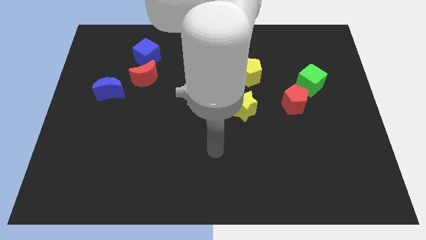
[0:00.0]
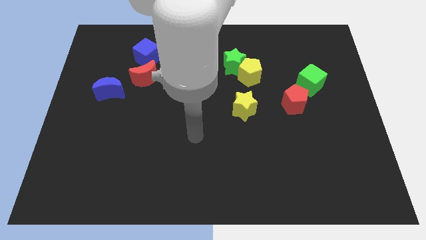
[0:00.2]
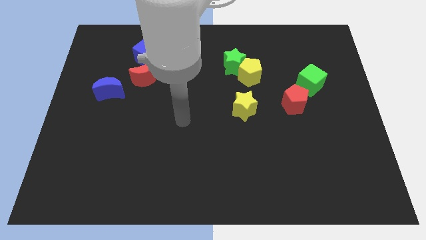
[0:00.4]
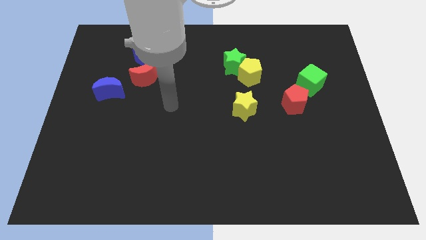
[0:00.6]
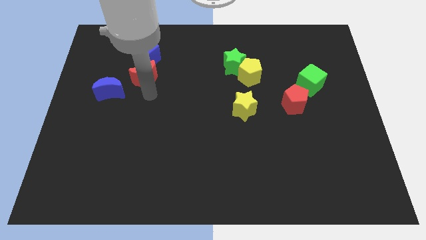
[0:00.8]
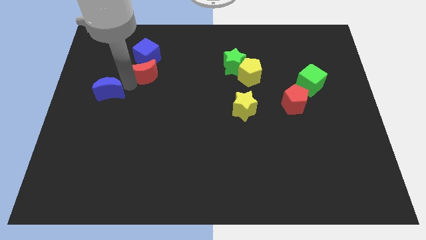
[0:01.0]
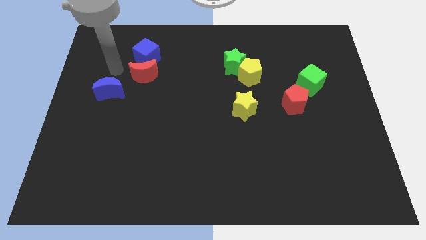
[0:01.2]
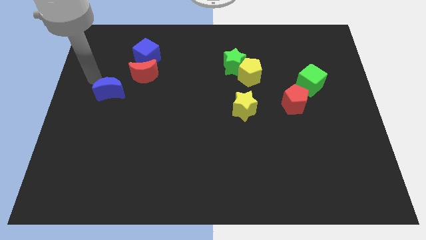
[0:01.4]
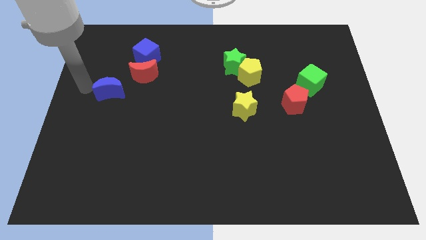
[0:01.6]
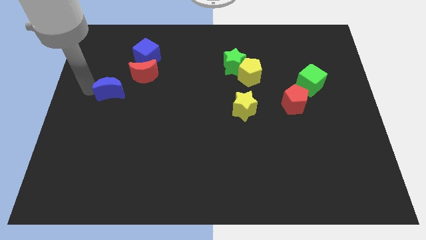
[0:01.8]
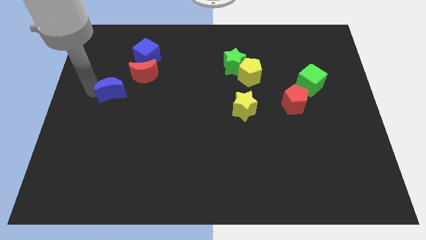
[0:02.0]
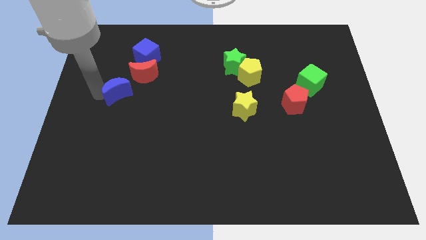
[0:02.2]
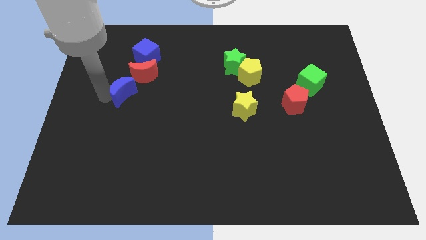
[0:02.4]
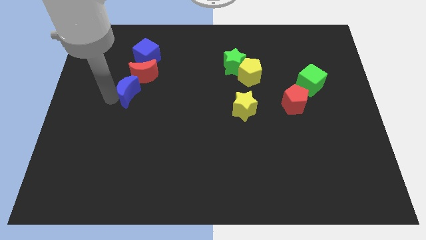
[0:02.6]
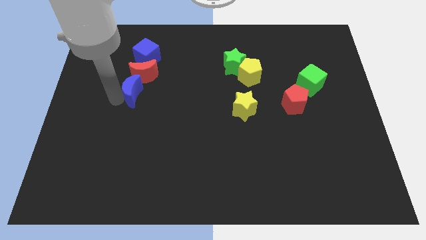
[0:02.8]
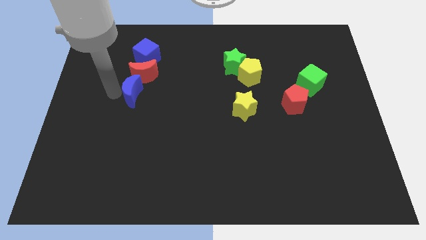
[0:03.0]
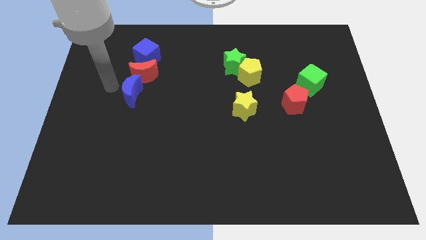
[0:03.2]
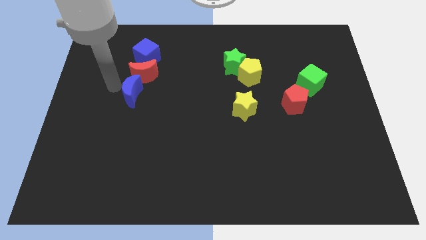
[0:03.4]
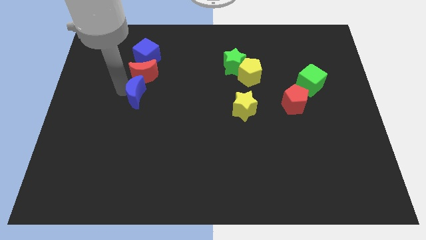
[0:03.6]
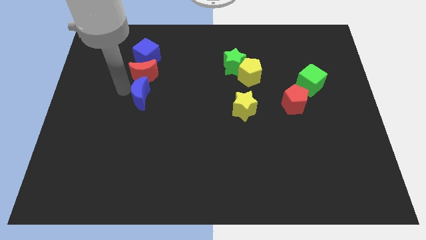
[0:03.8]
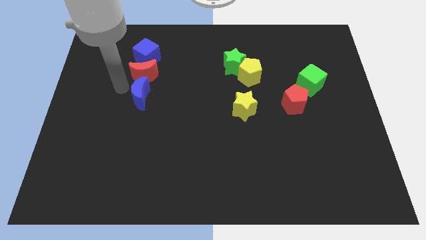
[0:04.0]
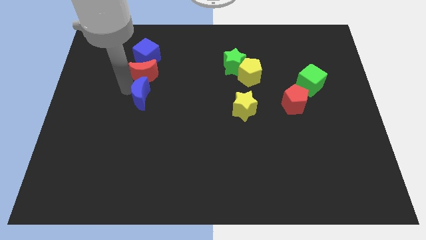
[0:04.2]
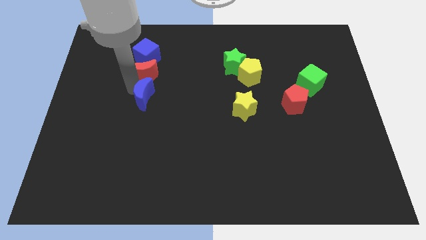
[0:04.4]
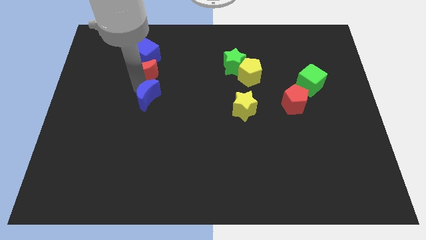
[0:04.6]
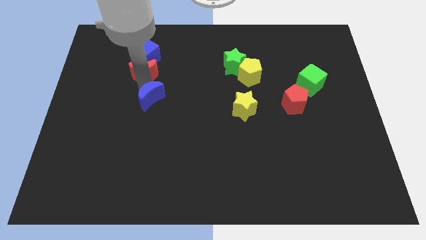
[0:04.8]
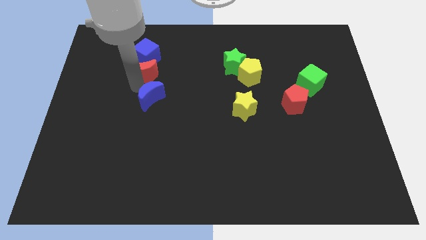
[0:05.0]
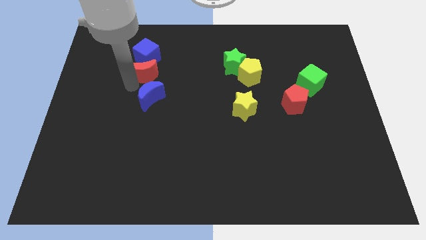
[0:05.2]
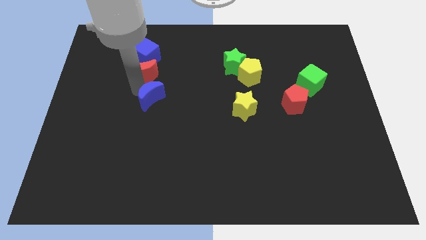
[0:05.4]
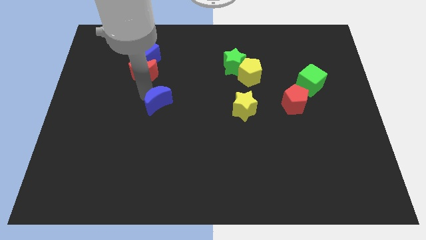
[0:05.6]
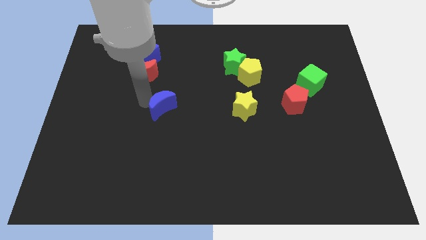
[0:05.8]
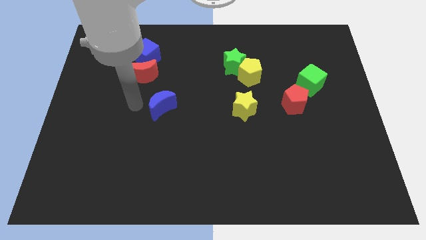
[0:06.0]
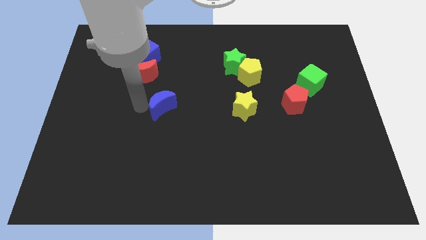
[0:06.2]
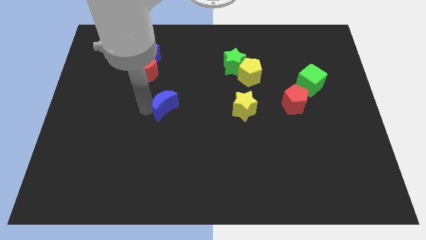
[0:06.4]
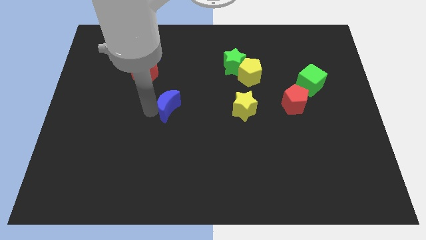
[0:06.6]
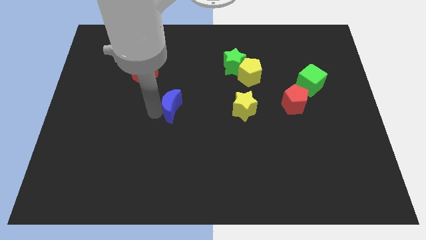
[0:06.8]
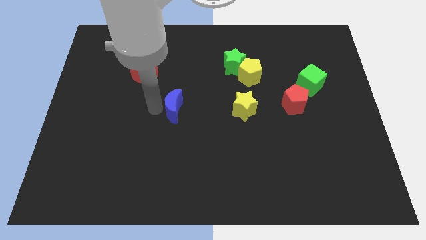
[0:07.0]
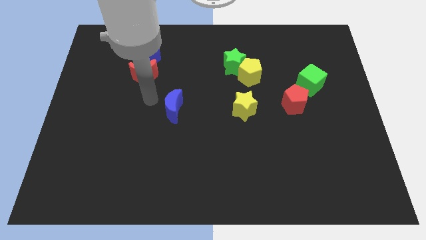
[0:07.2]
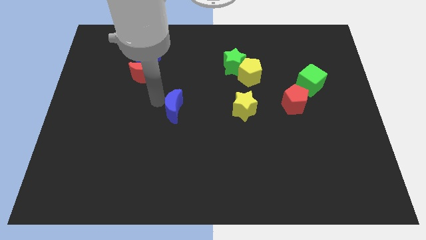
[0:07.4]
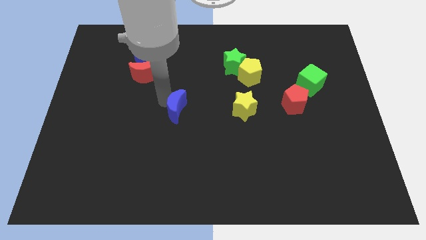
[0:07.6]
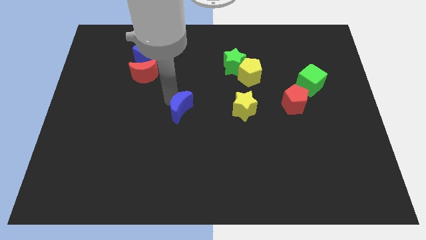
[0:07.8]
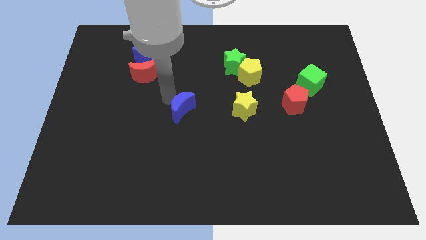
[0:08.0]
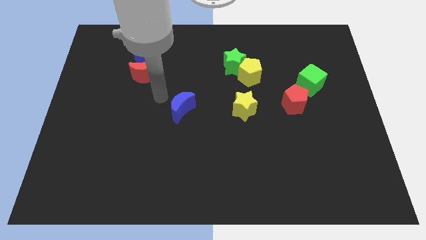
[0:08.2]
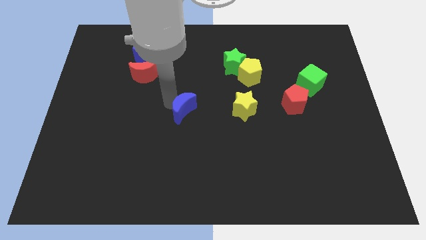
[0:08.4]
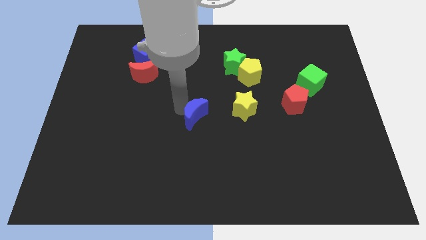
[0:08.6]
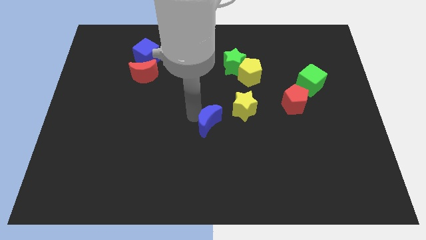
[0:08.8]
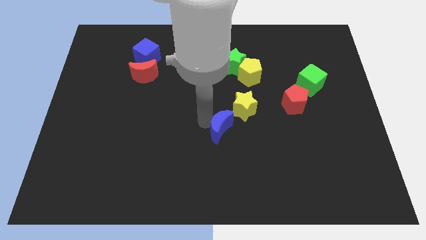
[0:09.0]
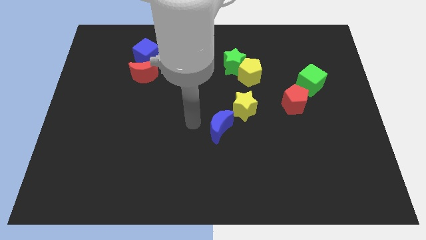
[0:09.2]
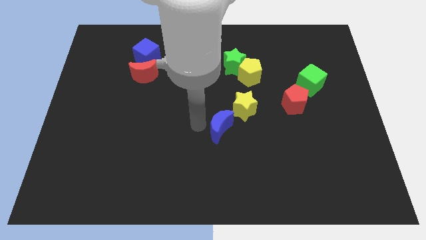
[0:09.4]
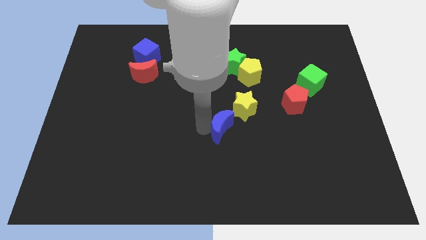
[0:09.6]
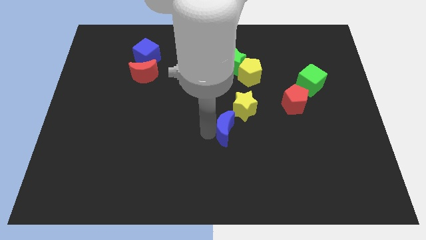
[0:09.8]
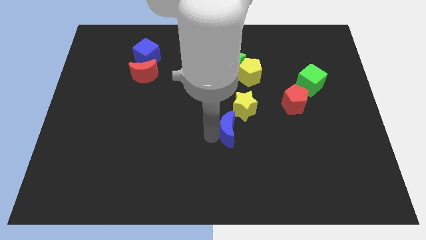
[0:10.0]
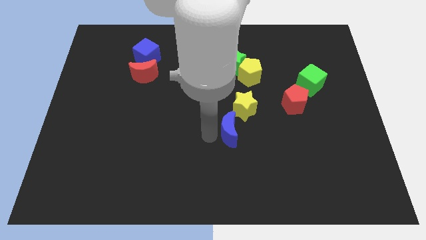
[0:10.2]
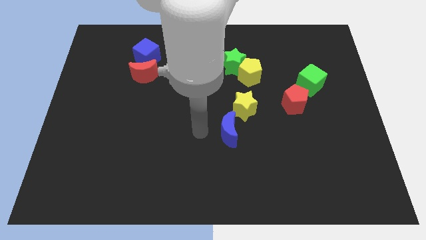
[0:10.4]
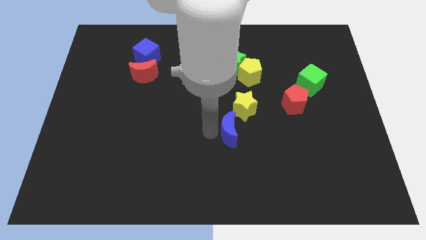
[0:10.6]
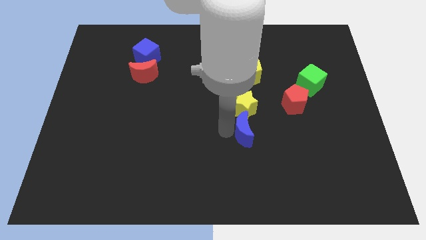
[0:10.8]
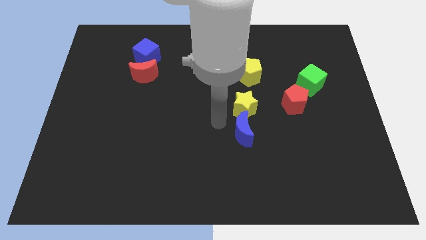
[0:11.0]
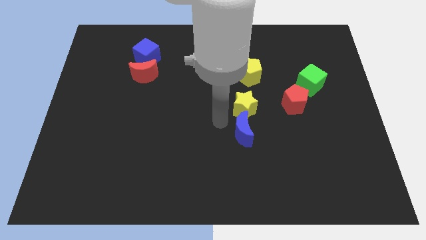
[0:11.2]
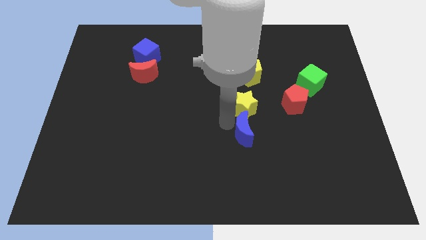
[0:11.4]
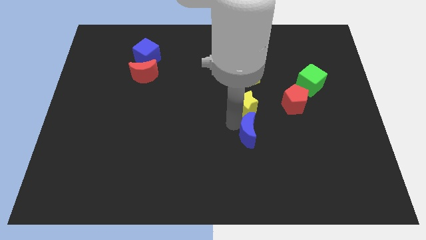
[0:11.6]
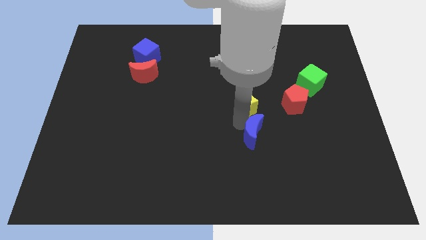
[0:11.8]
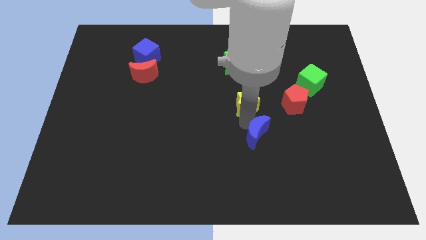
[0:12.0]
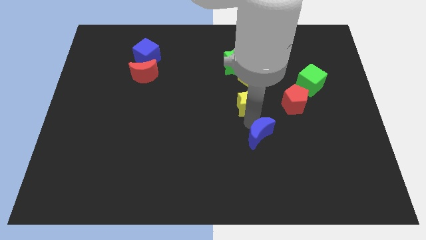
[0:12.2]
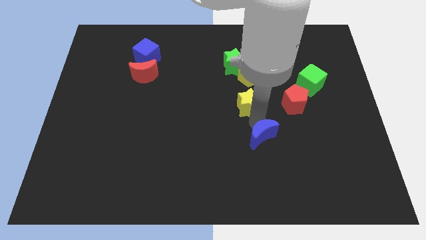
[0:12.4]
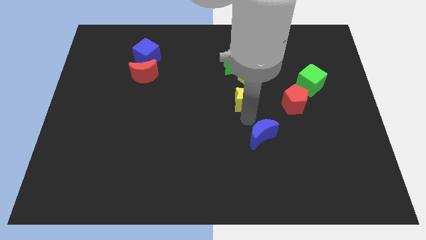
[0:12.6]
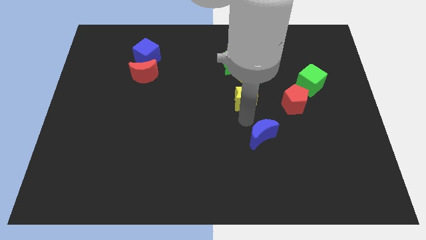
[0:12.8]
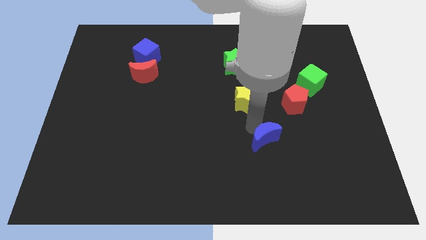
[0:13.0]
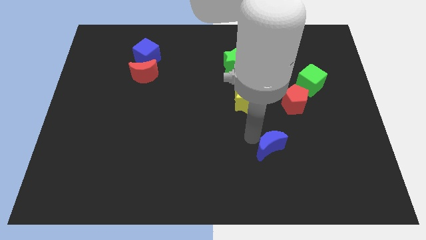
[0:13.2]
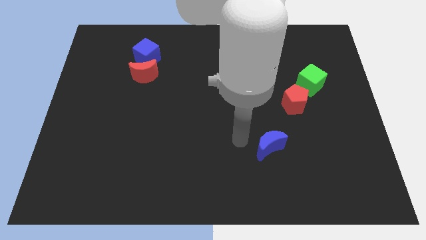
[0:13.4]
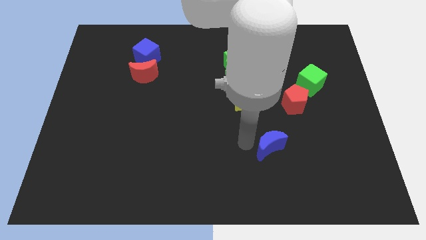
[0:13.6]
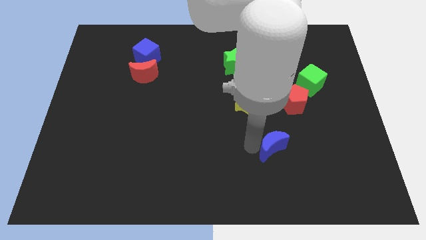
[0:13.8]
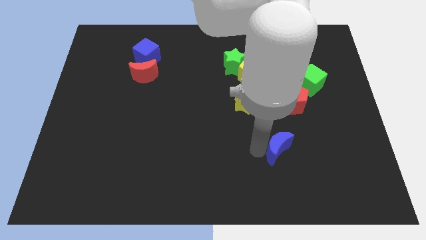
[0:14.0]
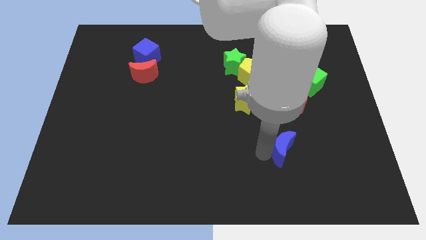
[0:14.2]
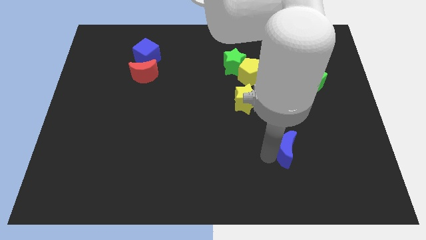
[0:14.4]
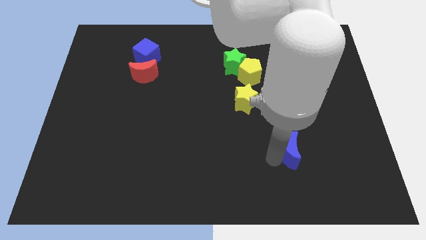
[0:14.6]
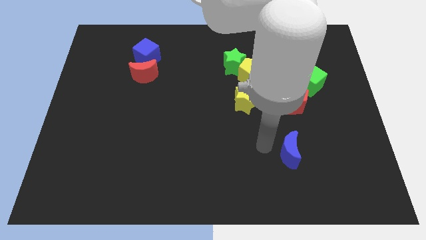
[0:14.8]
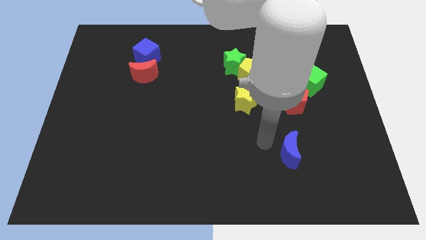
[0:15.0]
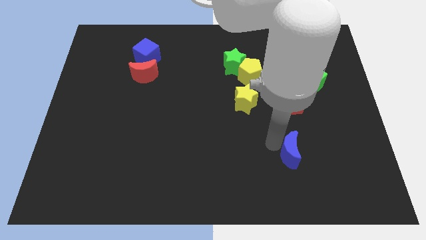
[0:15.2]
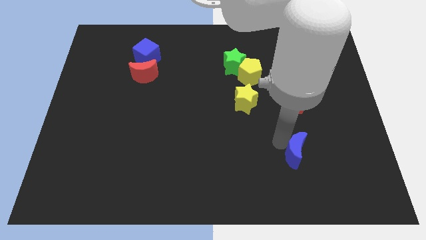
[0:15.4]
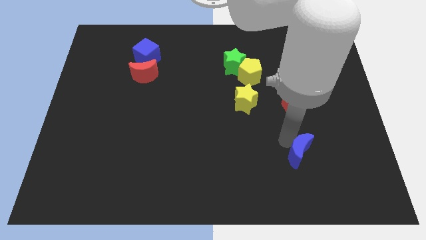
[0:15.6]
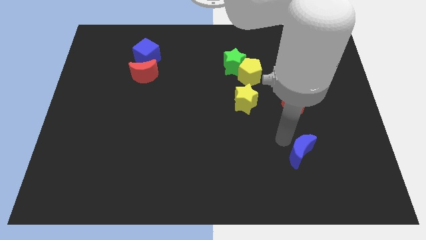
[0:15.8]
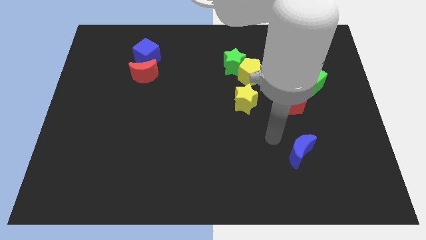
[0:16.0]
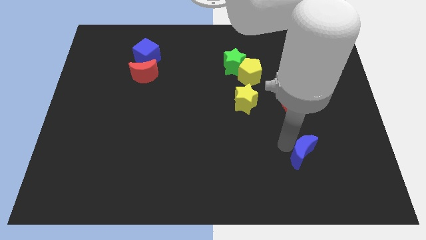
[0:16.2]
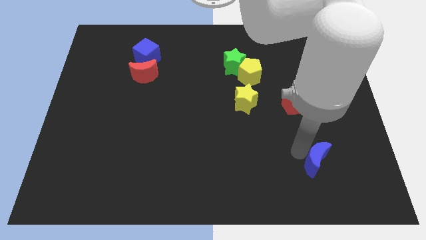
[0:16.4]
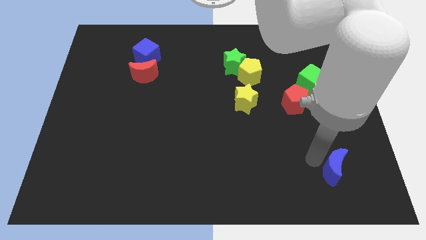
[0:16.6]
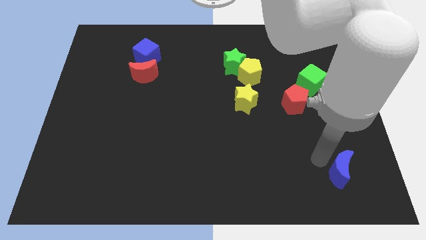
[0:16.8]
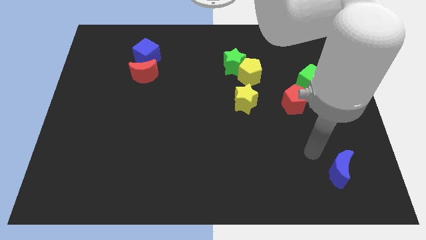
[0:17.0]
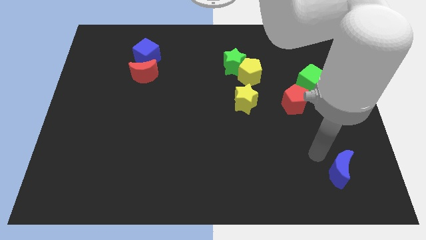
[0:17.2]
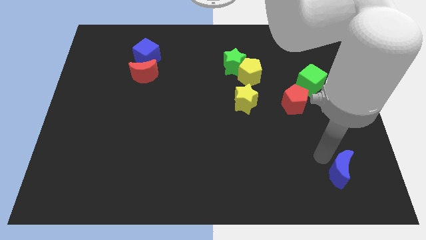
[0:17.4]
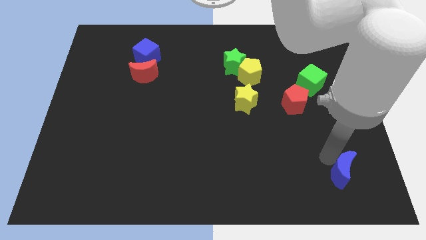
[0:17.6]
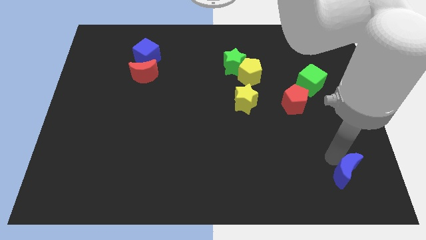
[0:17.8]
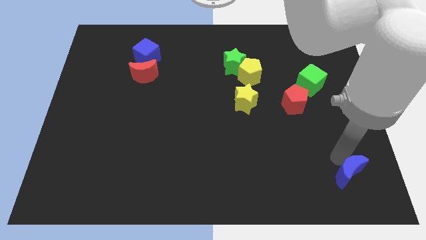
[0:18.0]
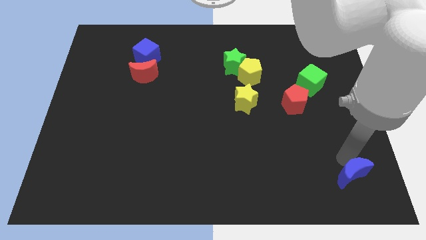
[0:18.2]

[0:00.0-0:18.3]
put the blue moon to the bottom right corner
